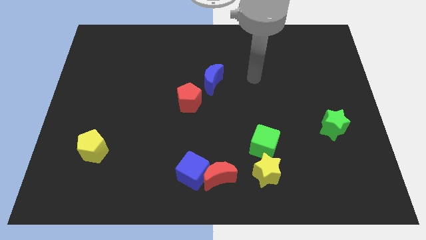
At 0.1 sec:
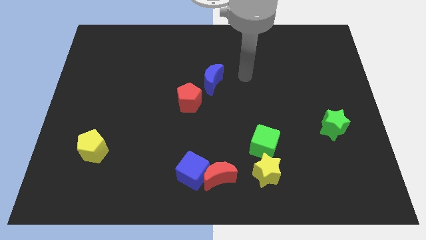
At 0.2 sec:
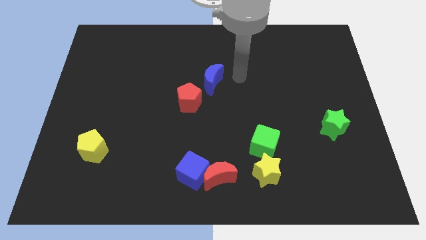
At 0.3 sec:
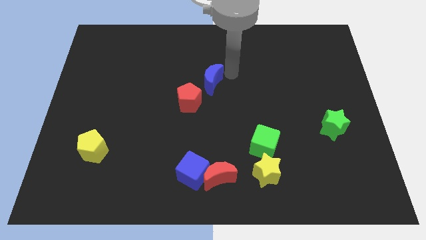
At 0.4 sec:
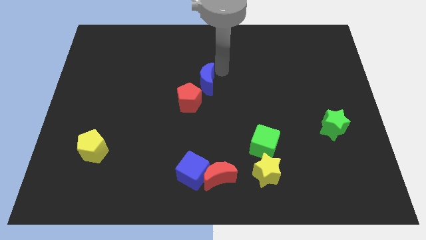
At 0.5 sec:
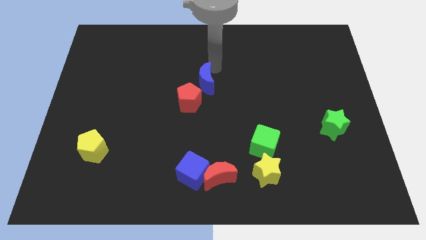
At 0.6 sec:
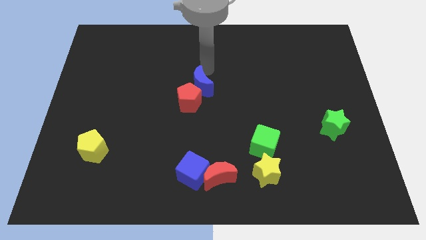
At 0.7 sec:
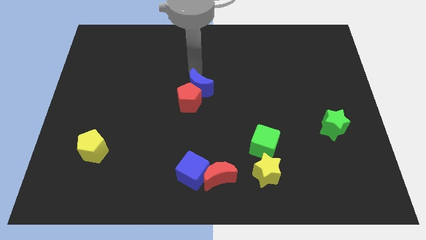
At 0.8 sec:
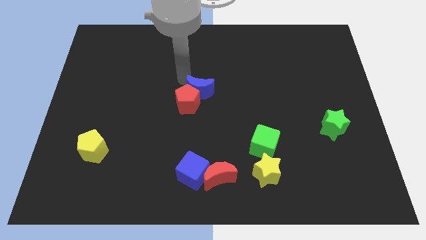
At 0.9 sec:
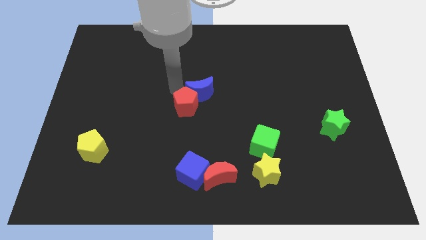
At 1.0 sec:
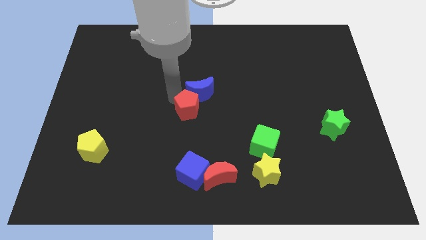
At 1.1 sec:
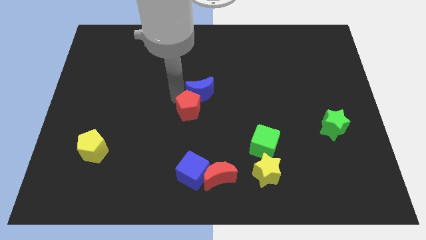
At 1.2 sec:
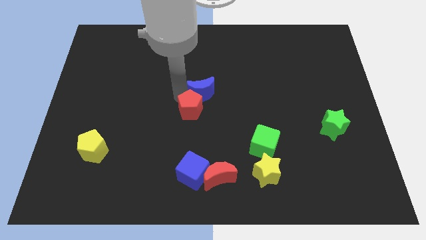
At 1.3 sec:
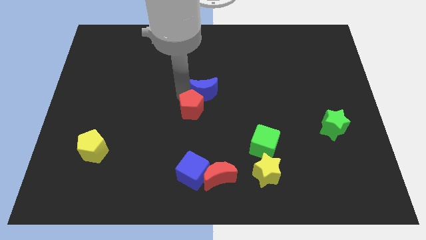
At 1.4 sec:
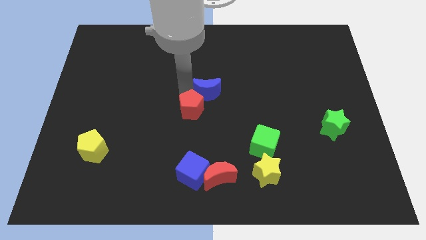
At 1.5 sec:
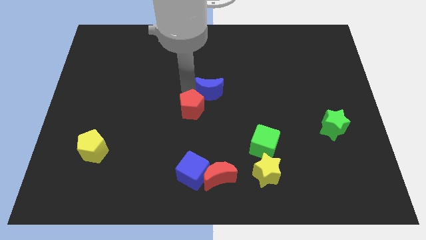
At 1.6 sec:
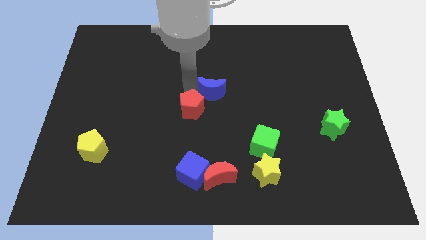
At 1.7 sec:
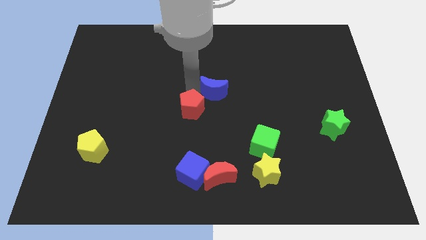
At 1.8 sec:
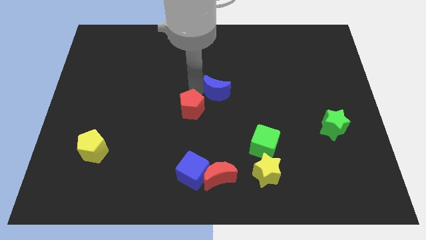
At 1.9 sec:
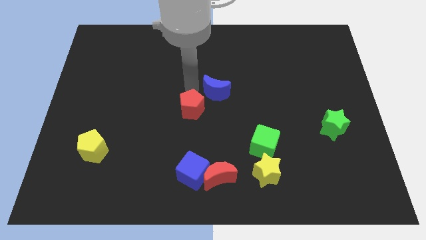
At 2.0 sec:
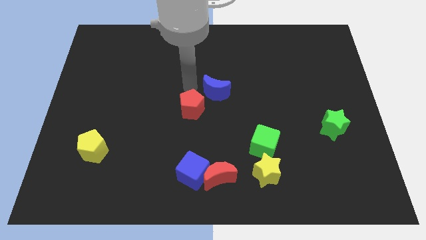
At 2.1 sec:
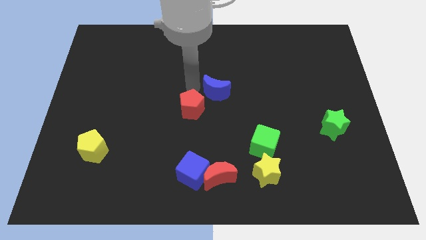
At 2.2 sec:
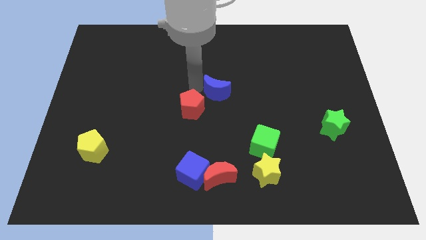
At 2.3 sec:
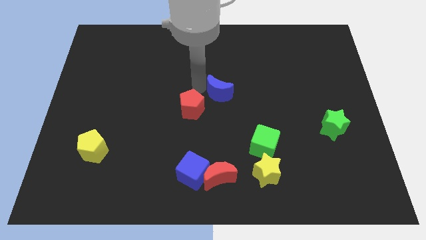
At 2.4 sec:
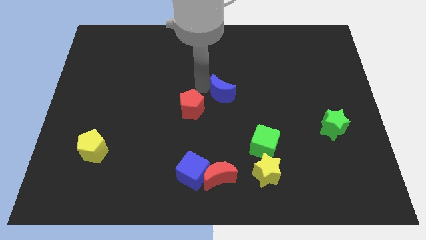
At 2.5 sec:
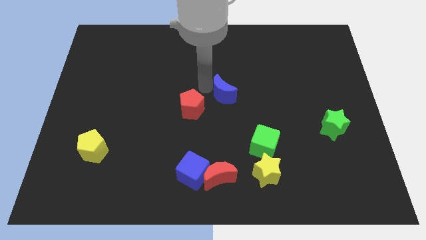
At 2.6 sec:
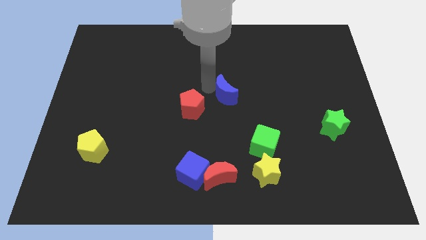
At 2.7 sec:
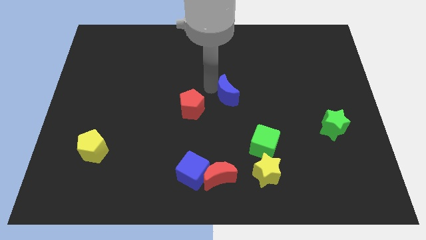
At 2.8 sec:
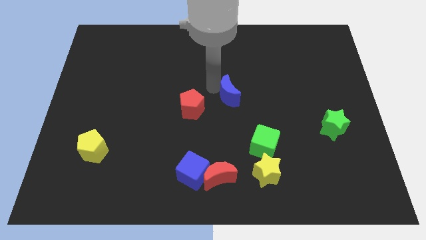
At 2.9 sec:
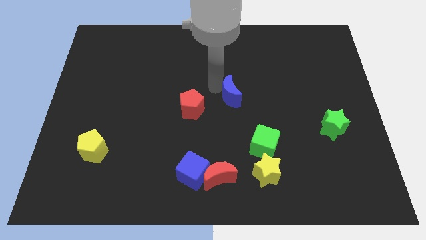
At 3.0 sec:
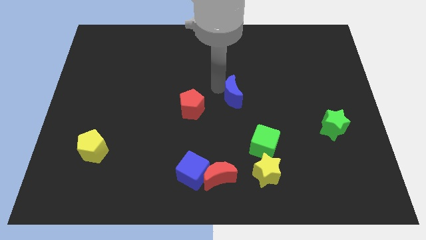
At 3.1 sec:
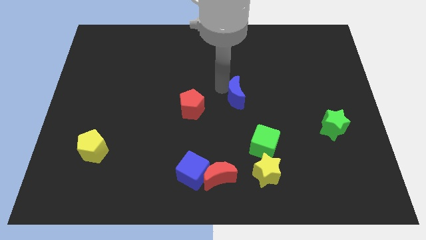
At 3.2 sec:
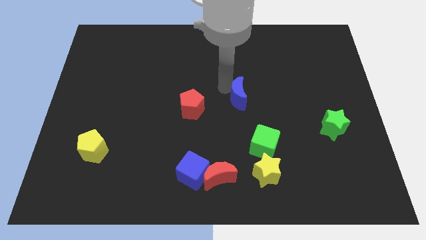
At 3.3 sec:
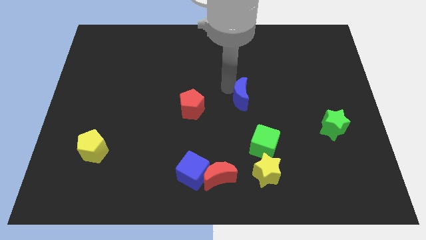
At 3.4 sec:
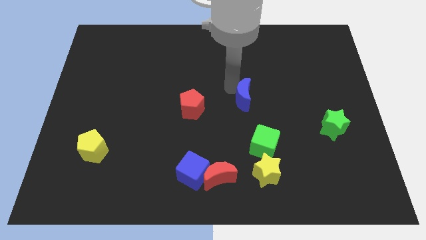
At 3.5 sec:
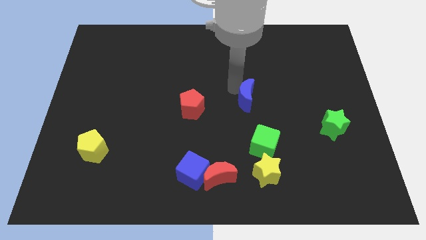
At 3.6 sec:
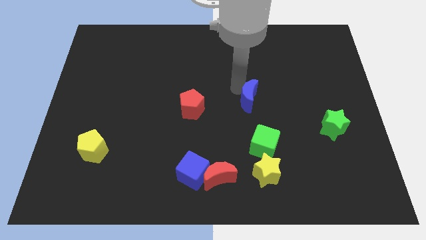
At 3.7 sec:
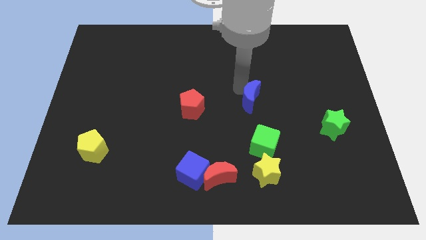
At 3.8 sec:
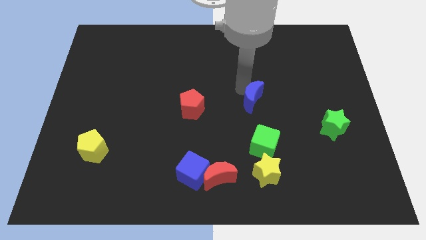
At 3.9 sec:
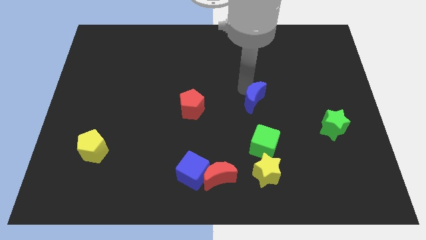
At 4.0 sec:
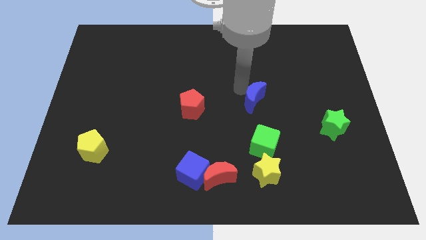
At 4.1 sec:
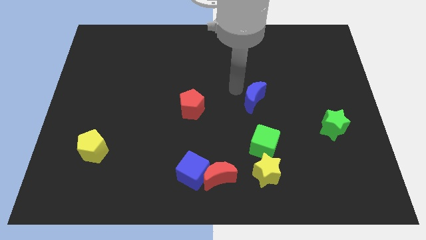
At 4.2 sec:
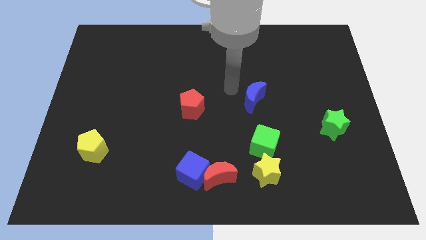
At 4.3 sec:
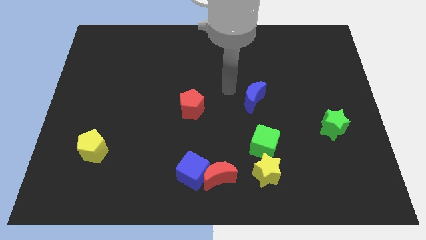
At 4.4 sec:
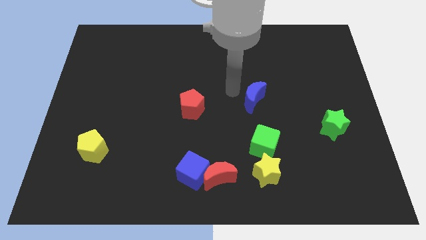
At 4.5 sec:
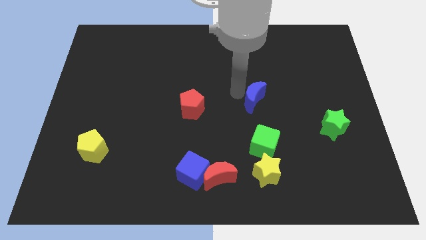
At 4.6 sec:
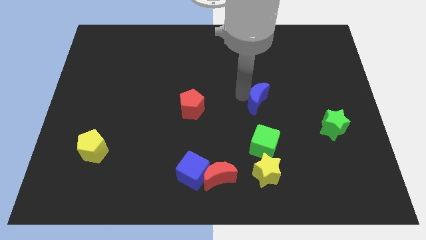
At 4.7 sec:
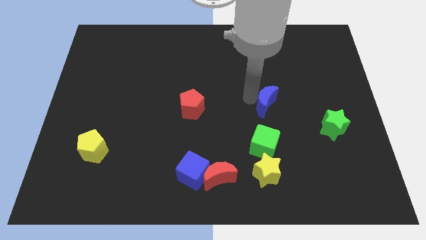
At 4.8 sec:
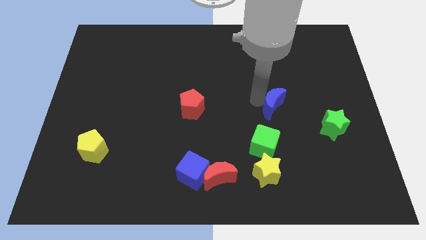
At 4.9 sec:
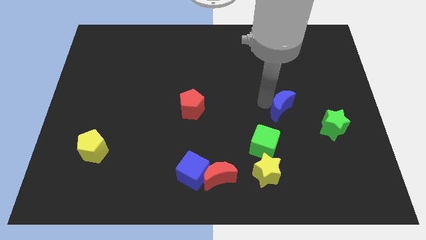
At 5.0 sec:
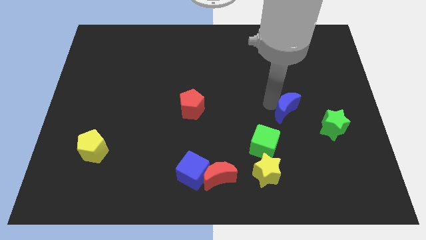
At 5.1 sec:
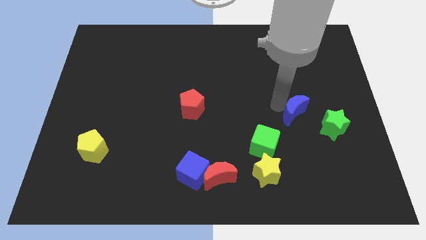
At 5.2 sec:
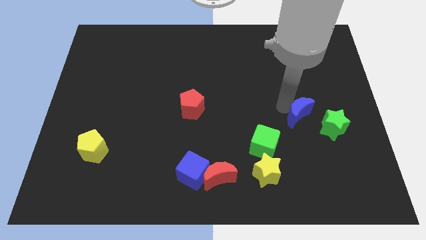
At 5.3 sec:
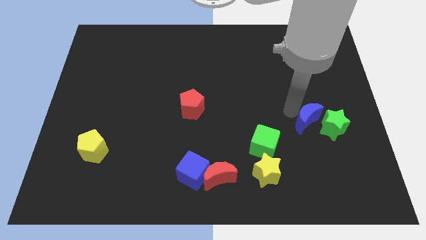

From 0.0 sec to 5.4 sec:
move the blue moon next to the green star

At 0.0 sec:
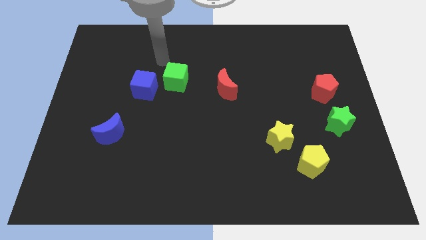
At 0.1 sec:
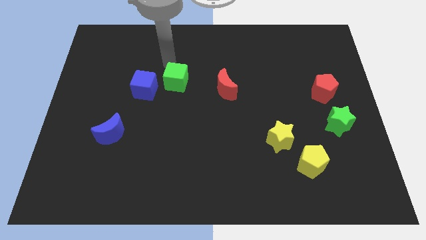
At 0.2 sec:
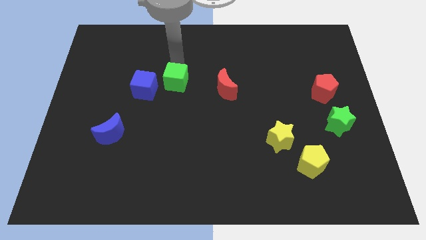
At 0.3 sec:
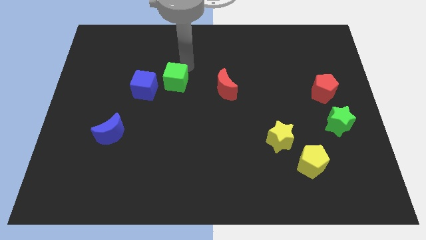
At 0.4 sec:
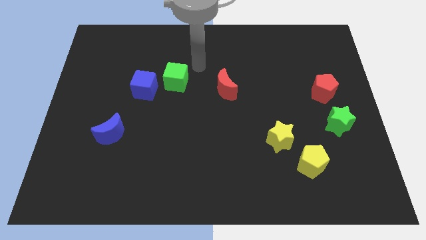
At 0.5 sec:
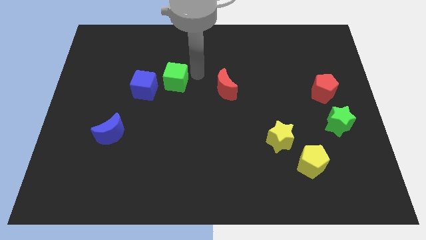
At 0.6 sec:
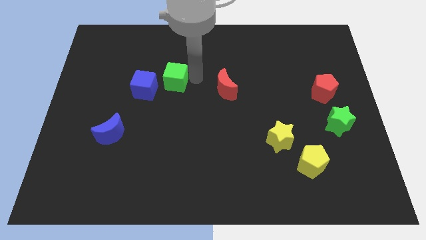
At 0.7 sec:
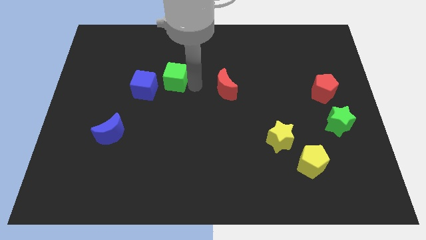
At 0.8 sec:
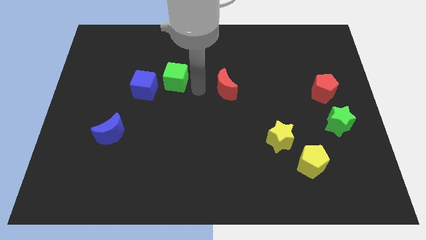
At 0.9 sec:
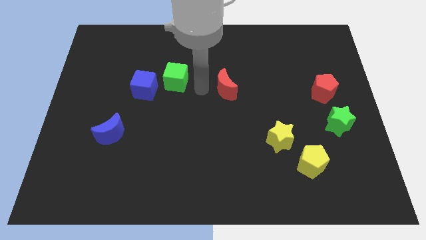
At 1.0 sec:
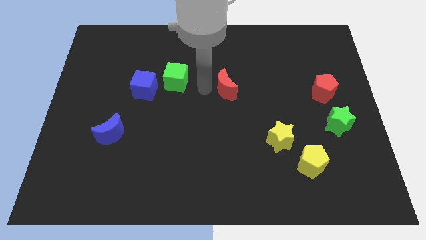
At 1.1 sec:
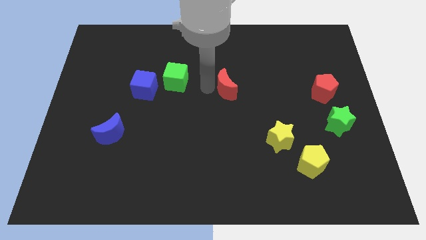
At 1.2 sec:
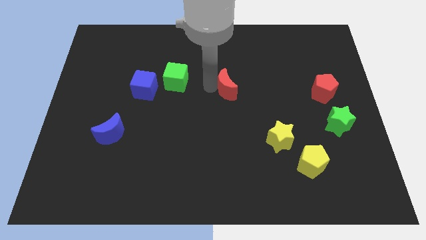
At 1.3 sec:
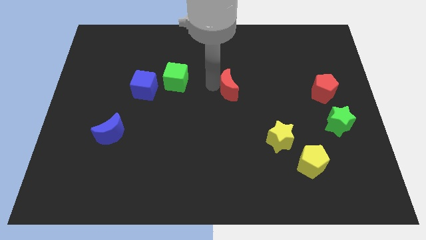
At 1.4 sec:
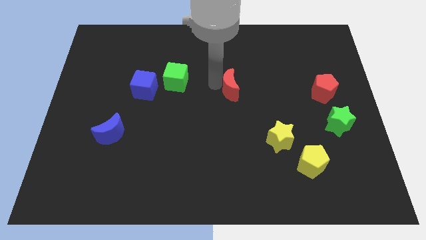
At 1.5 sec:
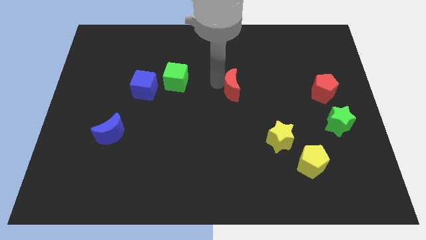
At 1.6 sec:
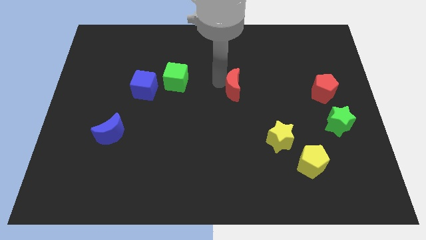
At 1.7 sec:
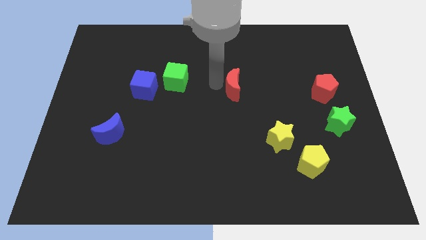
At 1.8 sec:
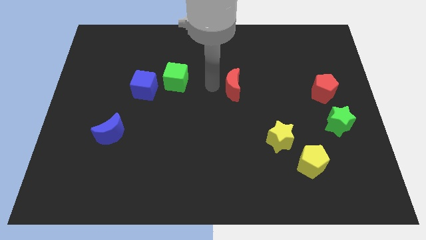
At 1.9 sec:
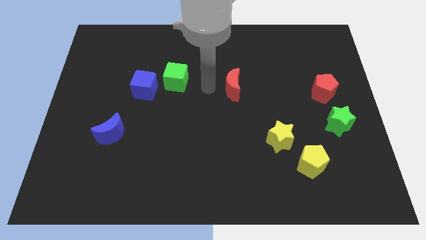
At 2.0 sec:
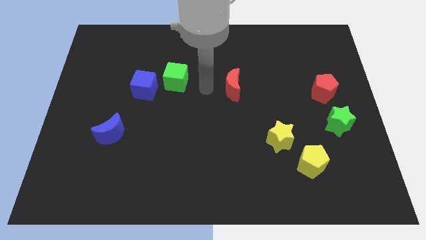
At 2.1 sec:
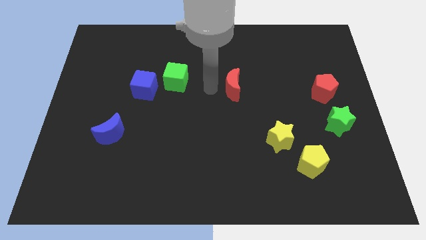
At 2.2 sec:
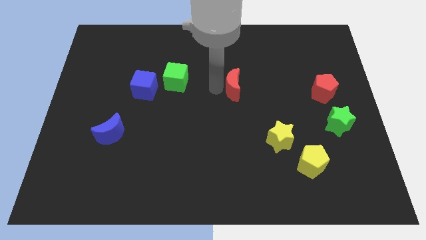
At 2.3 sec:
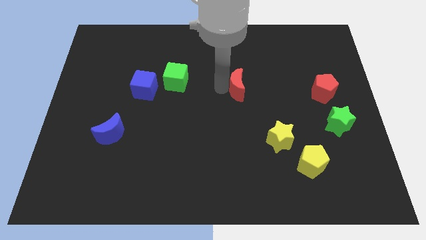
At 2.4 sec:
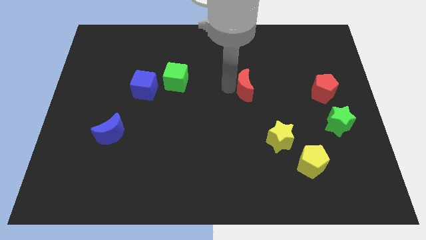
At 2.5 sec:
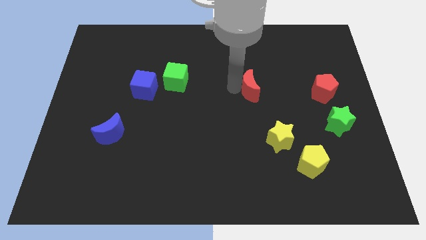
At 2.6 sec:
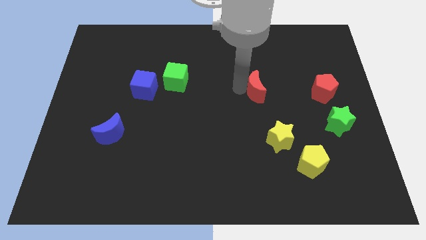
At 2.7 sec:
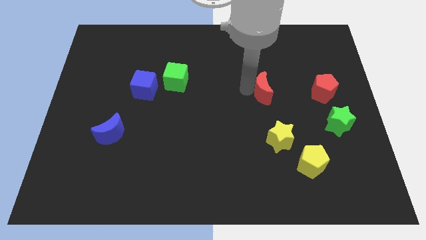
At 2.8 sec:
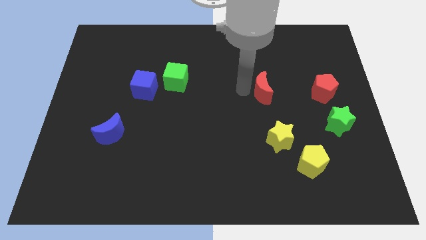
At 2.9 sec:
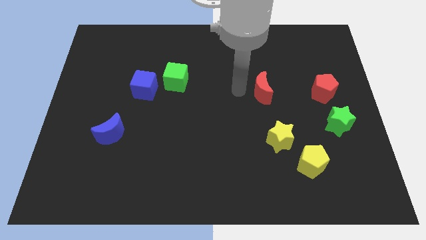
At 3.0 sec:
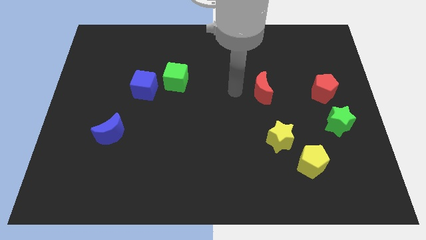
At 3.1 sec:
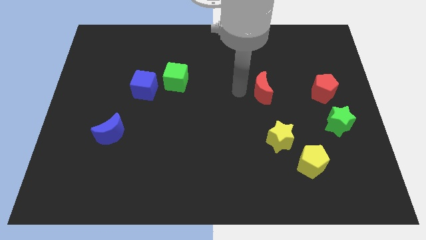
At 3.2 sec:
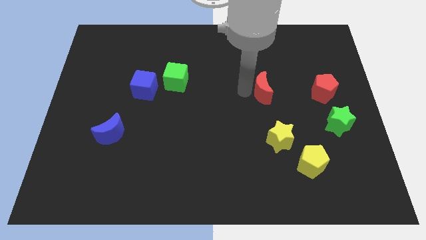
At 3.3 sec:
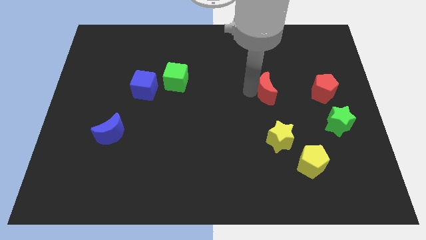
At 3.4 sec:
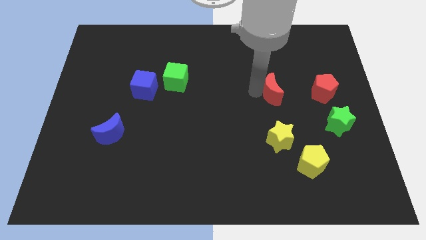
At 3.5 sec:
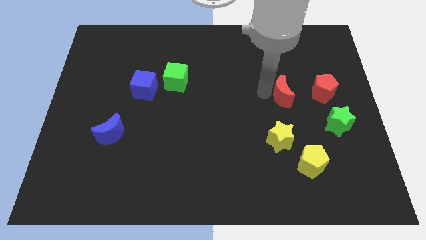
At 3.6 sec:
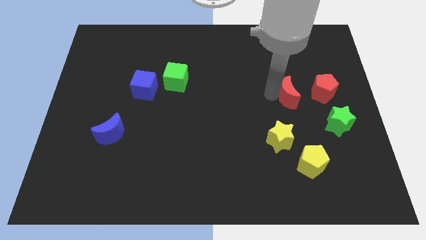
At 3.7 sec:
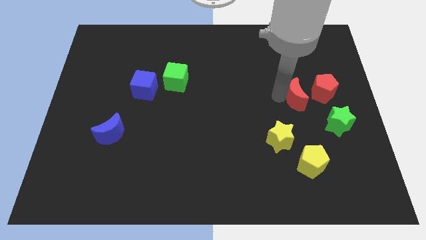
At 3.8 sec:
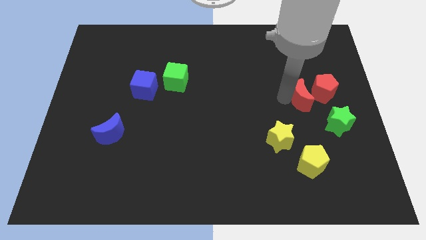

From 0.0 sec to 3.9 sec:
push the red moon close to the red pentagon
